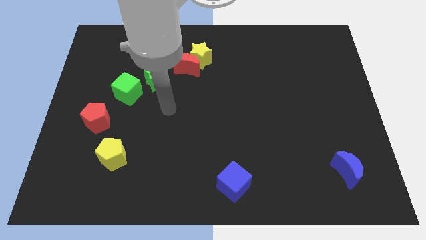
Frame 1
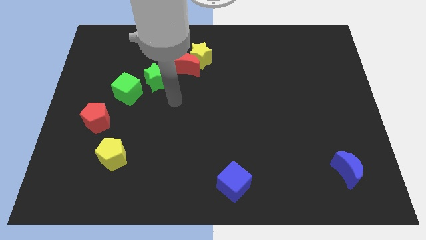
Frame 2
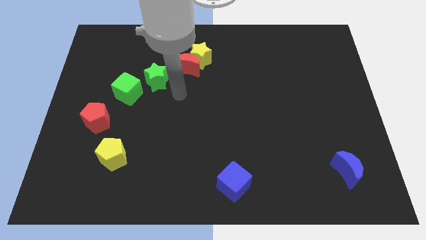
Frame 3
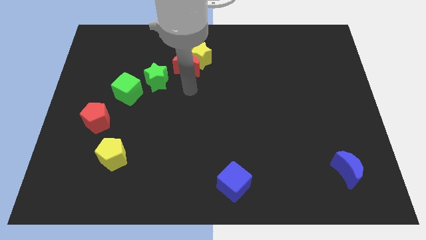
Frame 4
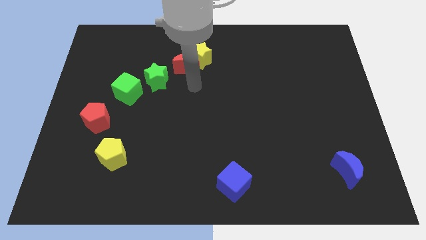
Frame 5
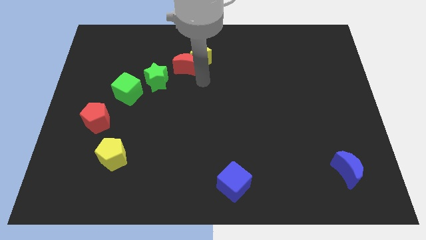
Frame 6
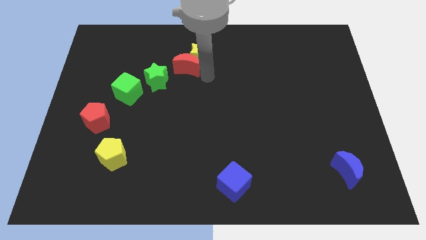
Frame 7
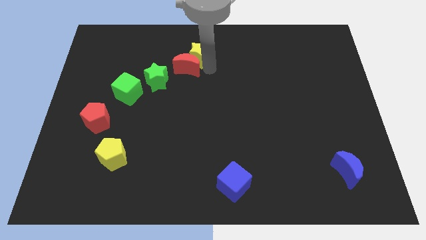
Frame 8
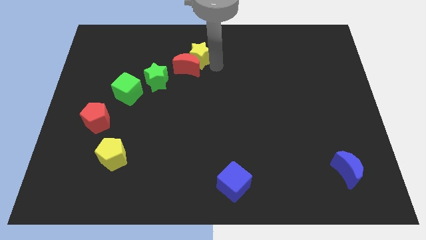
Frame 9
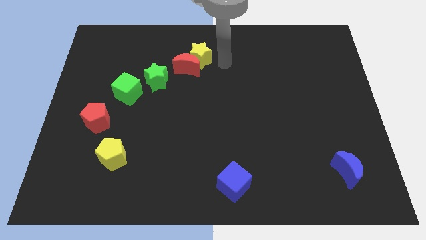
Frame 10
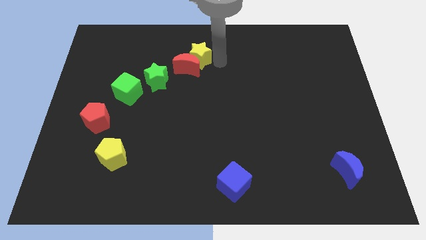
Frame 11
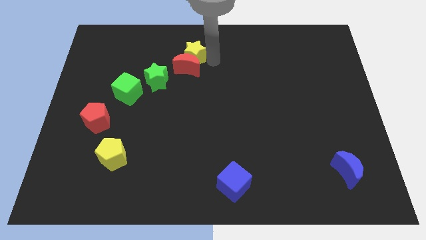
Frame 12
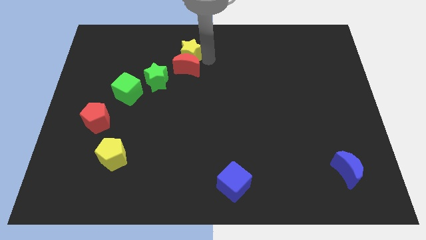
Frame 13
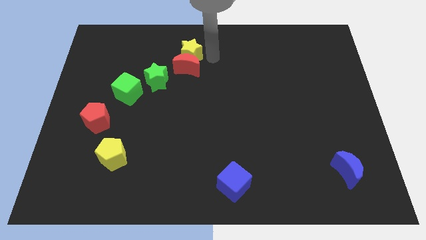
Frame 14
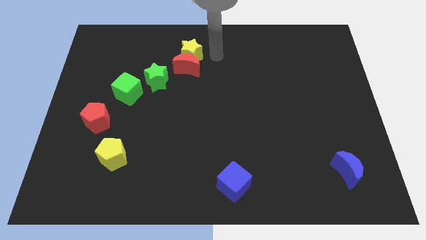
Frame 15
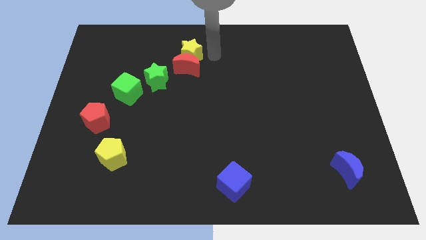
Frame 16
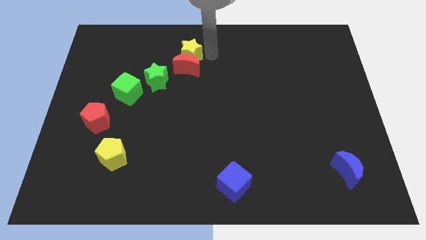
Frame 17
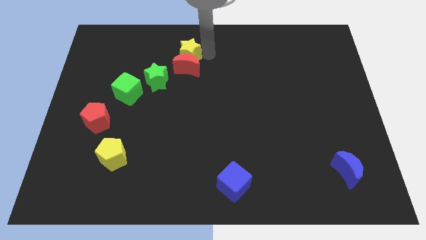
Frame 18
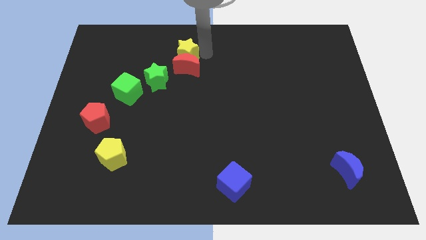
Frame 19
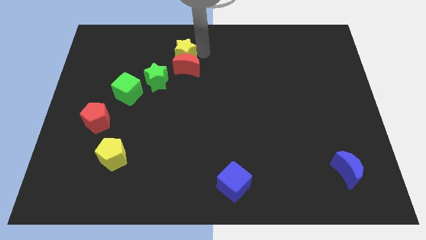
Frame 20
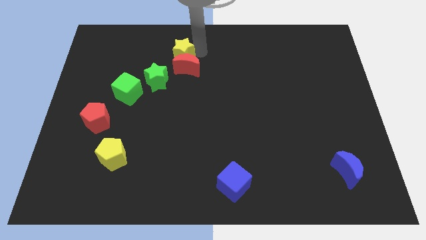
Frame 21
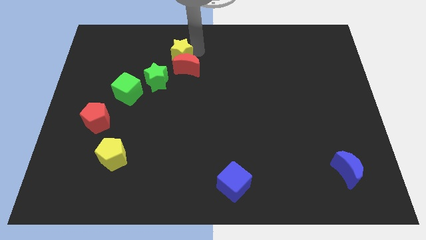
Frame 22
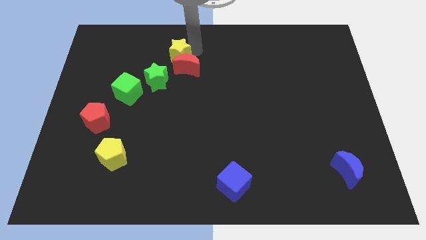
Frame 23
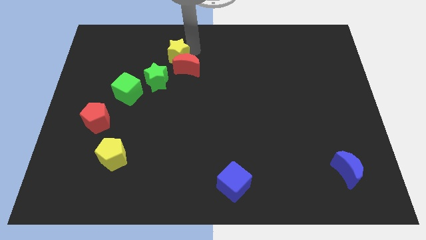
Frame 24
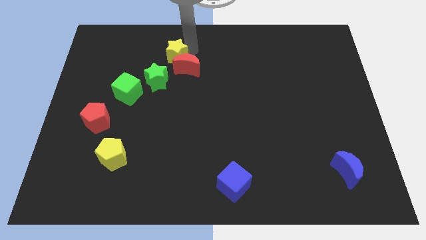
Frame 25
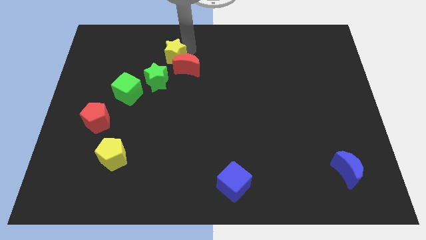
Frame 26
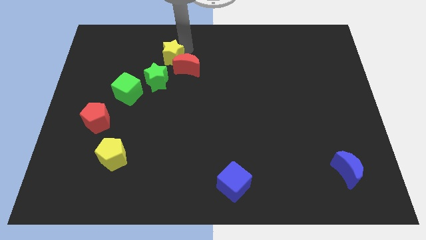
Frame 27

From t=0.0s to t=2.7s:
move the yellow star a little bit left

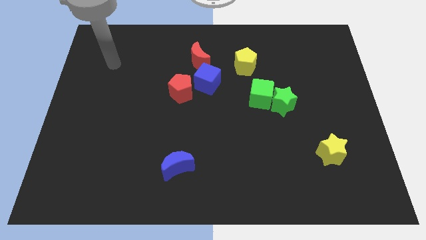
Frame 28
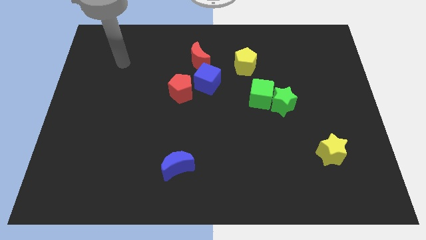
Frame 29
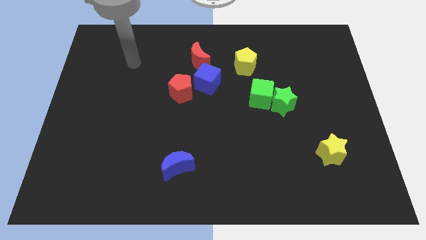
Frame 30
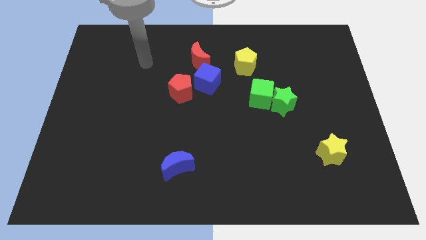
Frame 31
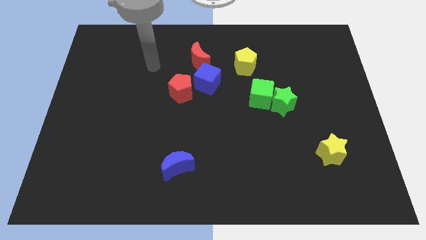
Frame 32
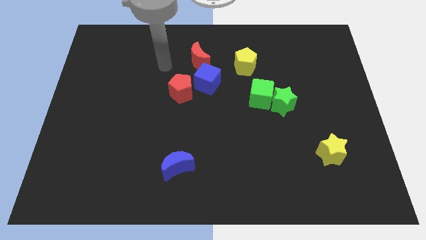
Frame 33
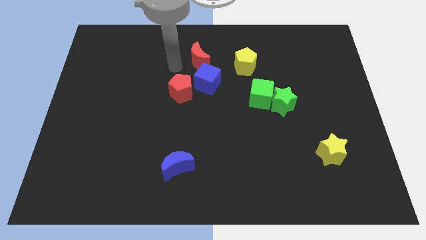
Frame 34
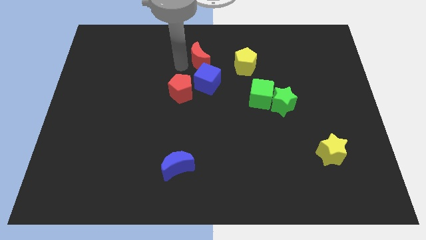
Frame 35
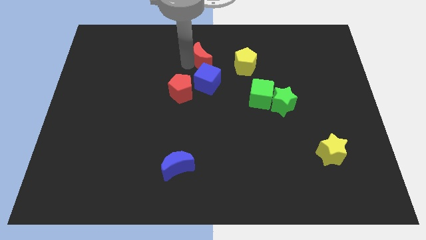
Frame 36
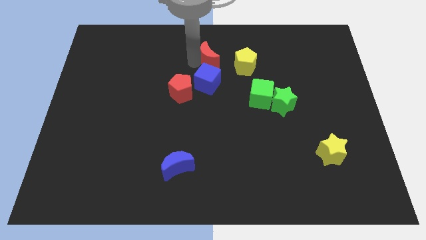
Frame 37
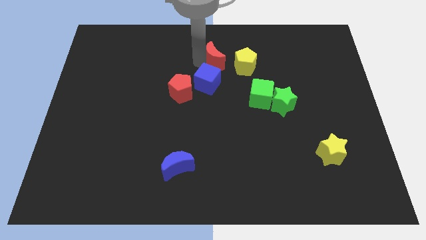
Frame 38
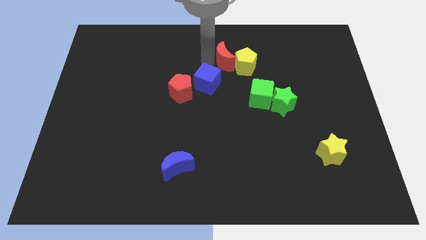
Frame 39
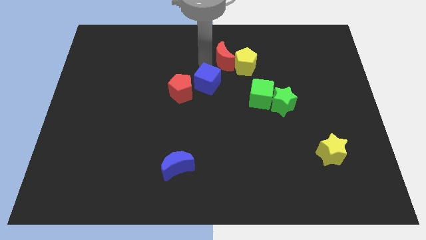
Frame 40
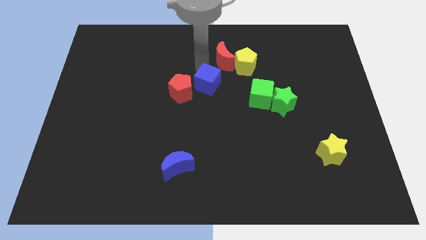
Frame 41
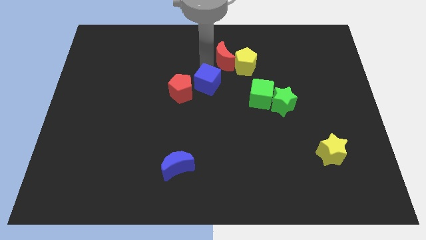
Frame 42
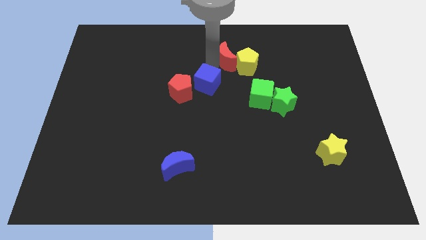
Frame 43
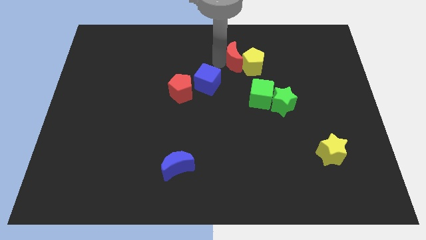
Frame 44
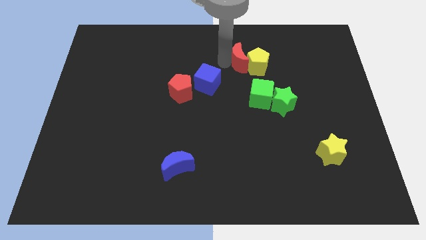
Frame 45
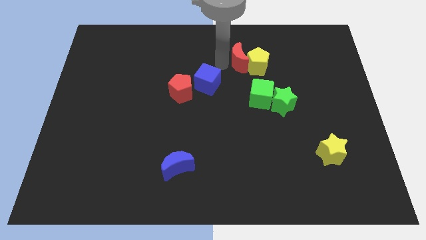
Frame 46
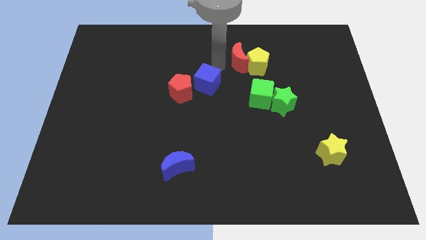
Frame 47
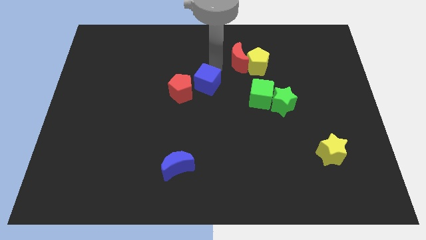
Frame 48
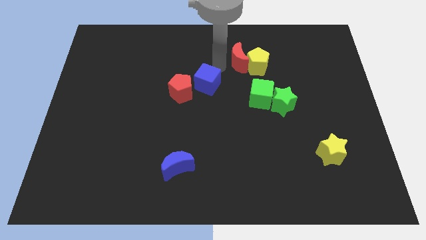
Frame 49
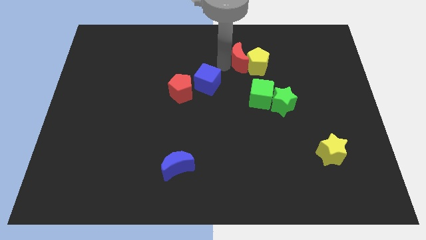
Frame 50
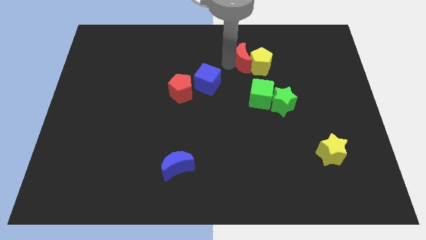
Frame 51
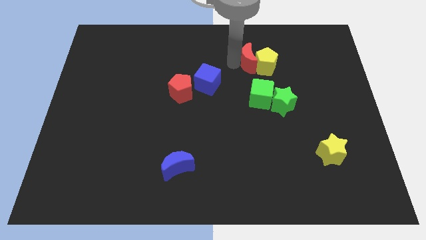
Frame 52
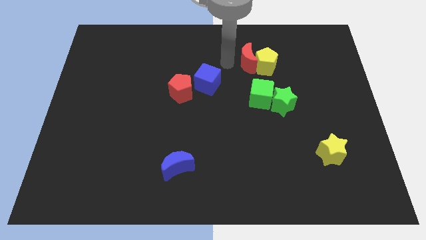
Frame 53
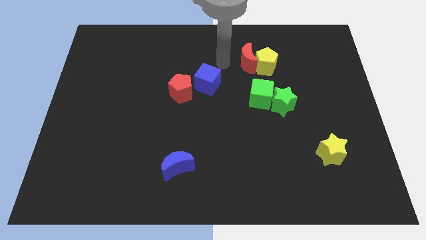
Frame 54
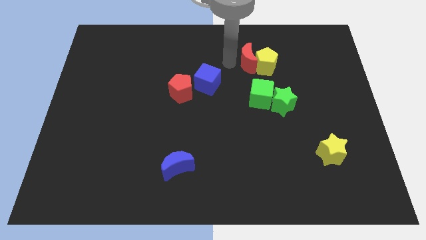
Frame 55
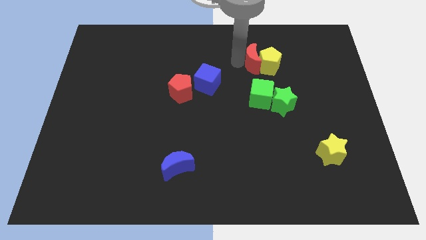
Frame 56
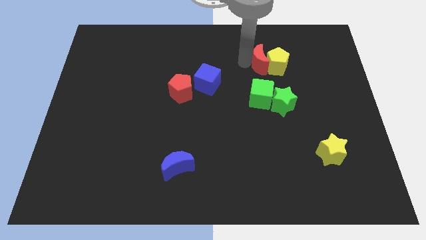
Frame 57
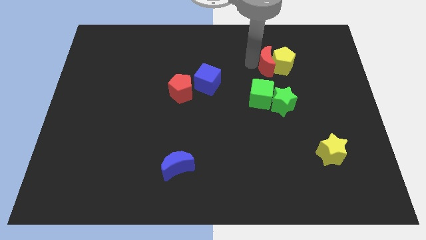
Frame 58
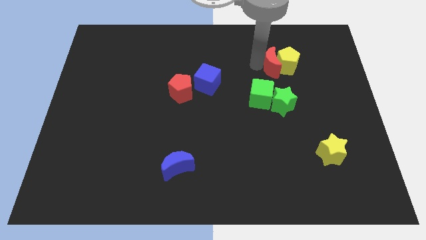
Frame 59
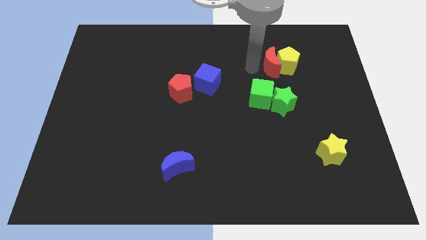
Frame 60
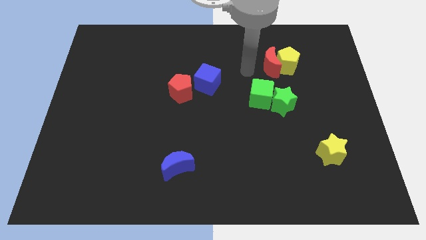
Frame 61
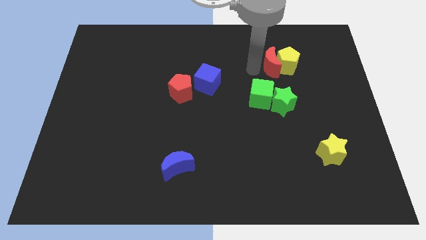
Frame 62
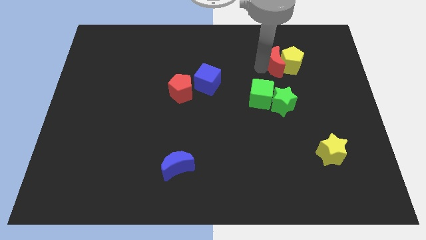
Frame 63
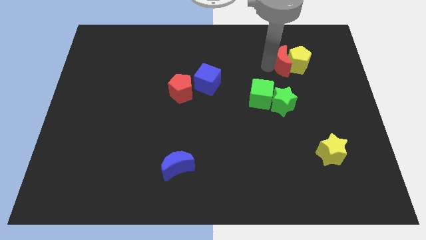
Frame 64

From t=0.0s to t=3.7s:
slide the red moon right

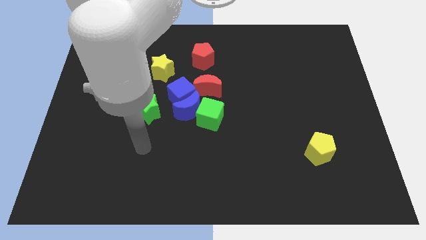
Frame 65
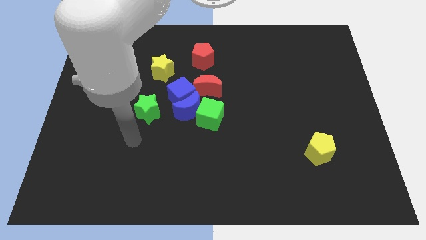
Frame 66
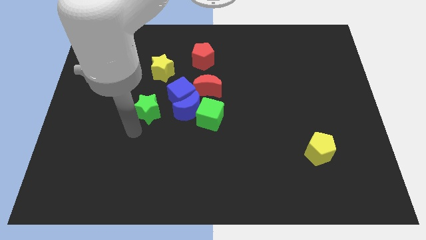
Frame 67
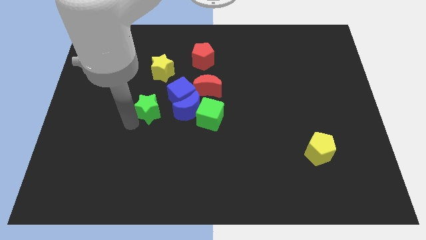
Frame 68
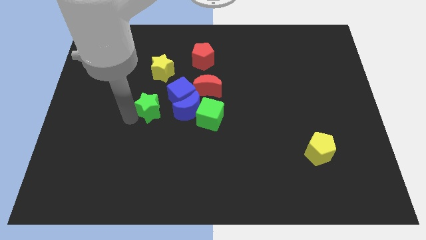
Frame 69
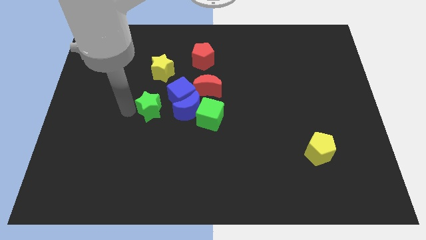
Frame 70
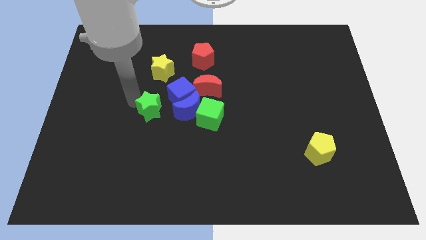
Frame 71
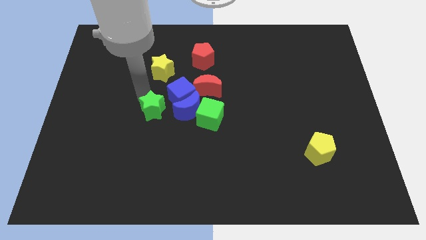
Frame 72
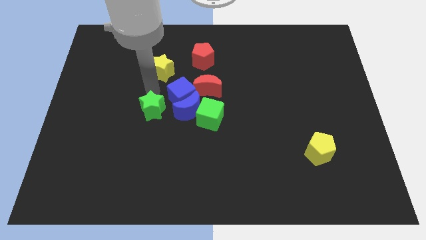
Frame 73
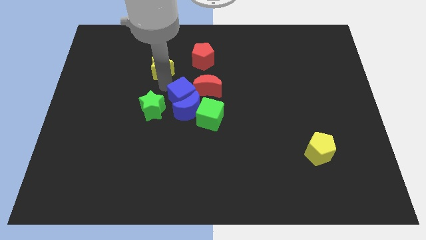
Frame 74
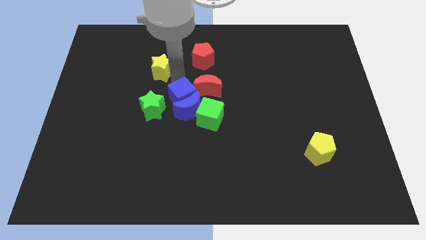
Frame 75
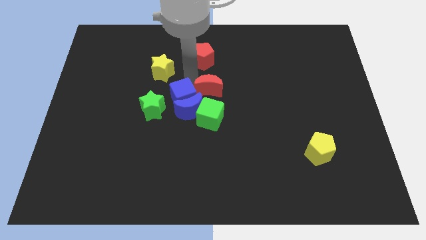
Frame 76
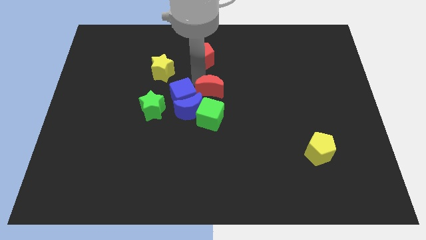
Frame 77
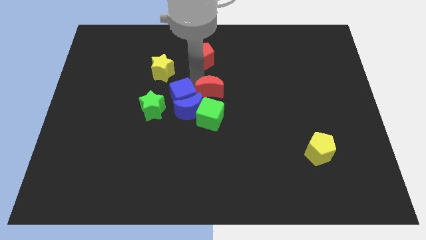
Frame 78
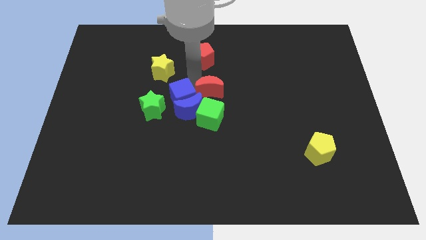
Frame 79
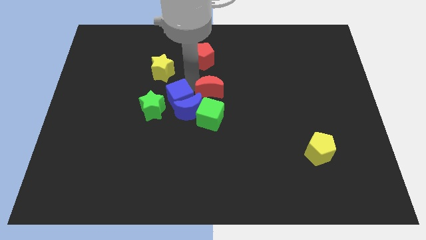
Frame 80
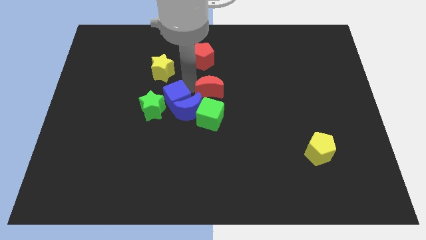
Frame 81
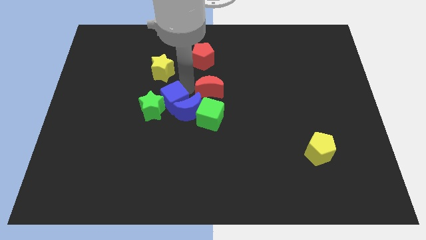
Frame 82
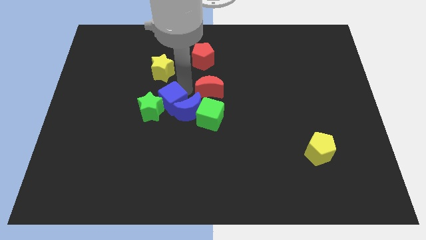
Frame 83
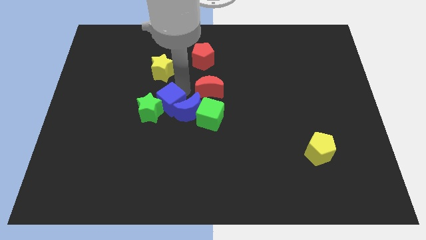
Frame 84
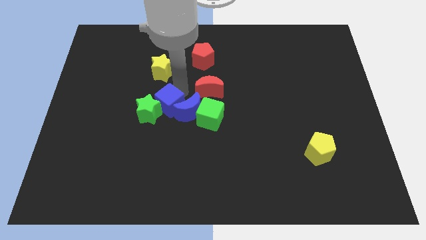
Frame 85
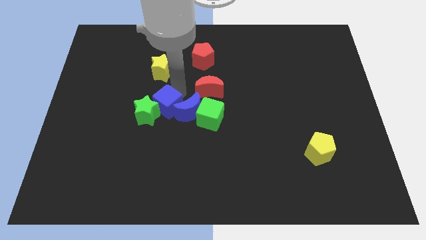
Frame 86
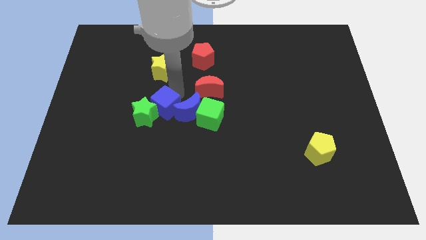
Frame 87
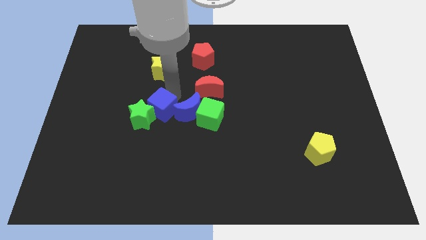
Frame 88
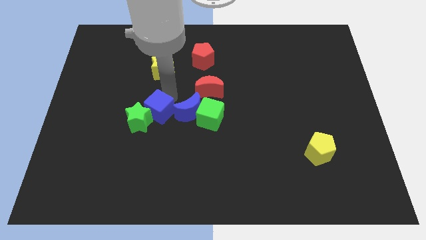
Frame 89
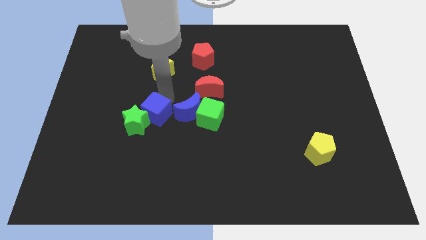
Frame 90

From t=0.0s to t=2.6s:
push the blue cube down and left a bit
